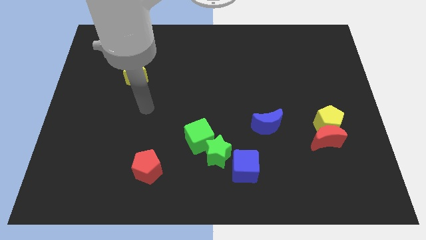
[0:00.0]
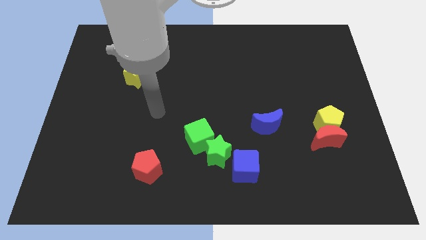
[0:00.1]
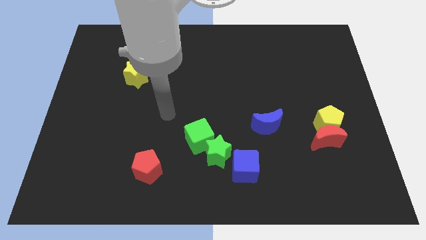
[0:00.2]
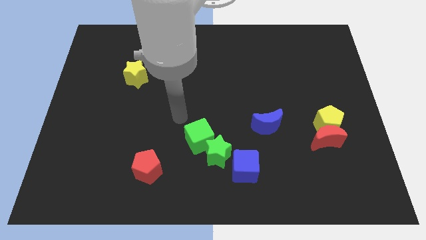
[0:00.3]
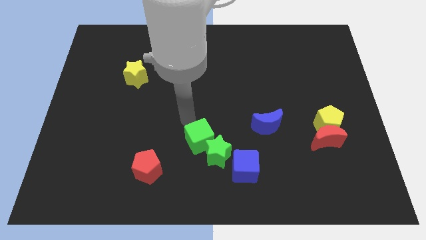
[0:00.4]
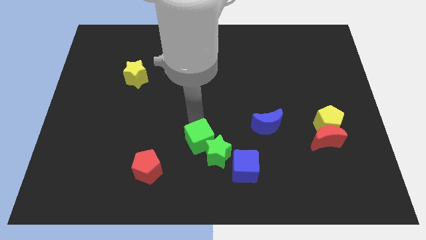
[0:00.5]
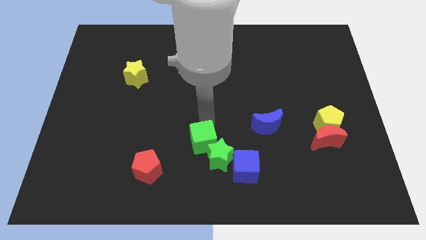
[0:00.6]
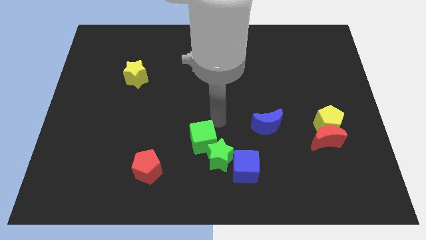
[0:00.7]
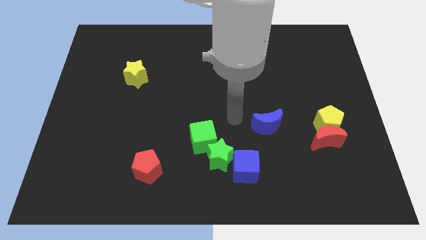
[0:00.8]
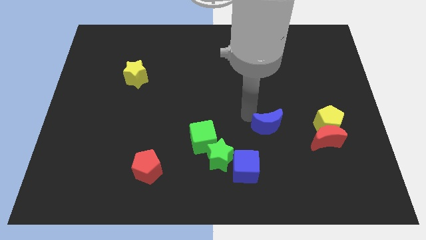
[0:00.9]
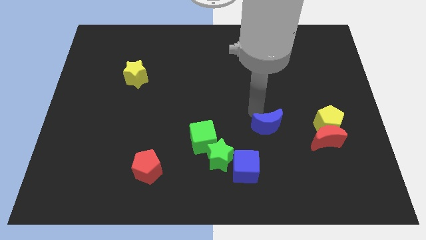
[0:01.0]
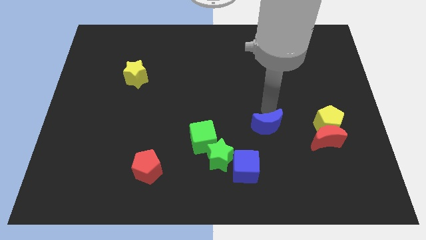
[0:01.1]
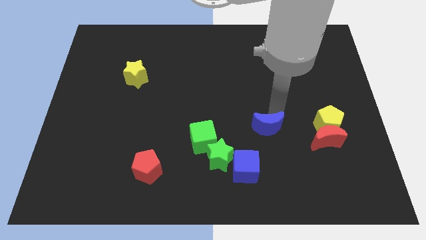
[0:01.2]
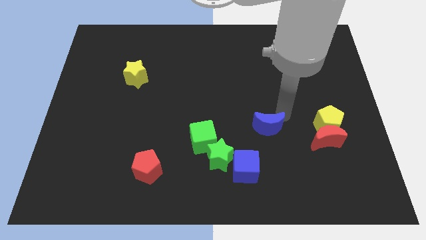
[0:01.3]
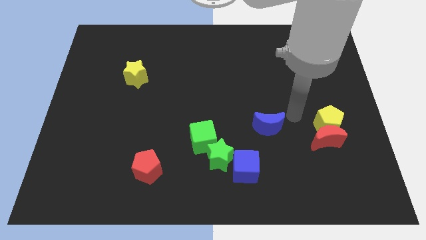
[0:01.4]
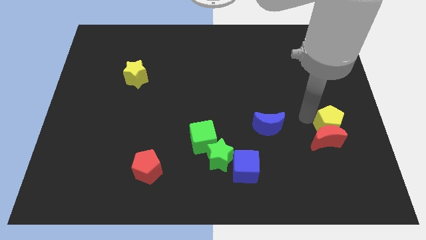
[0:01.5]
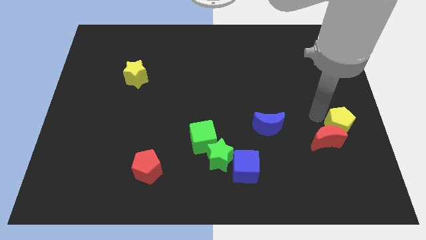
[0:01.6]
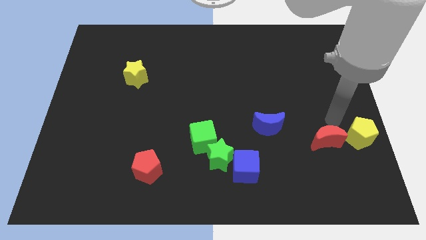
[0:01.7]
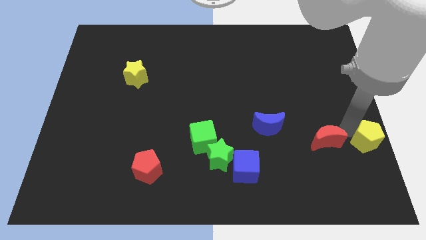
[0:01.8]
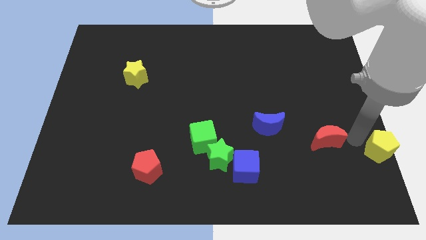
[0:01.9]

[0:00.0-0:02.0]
pull the red moon apart from the yellow pentagon

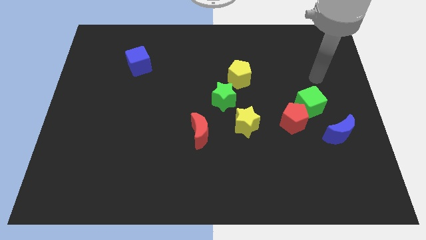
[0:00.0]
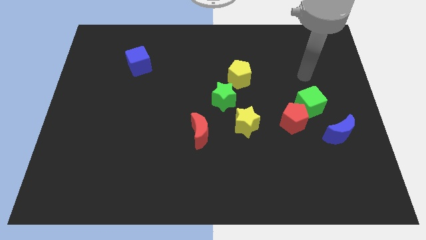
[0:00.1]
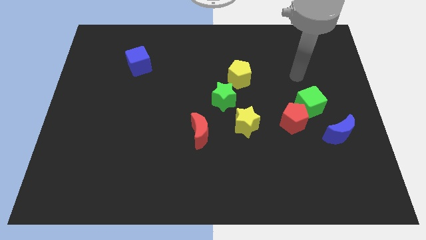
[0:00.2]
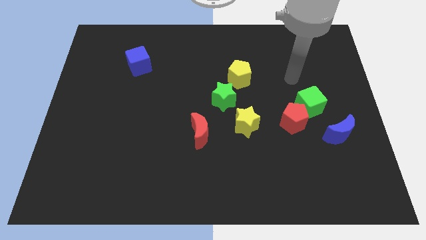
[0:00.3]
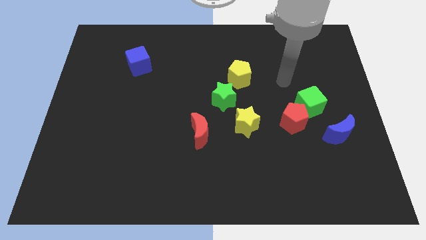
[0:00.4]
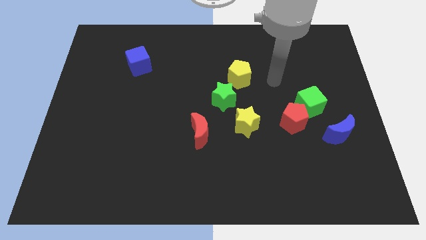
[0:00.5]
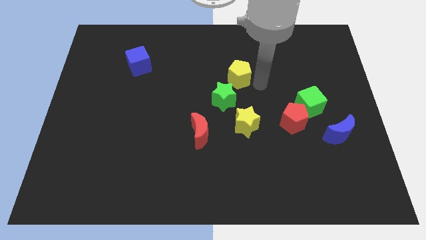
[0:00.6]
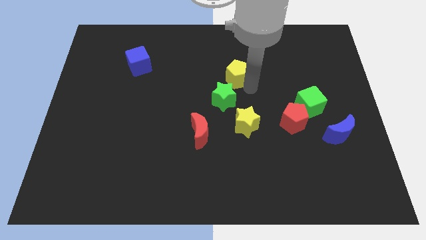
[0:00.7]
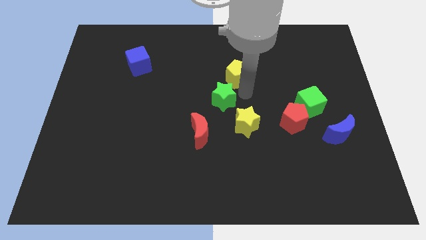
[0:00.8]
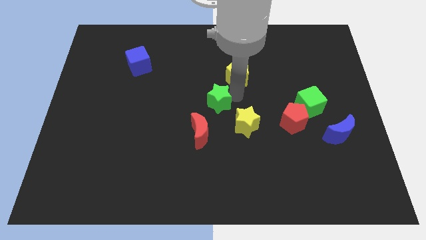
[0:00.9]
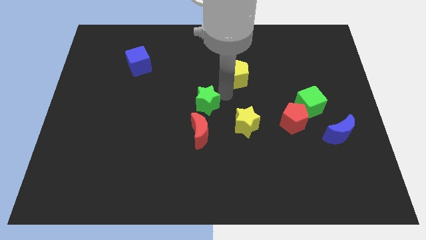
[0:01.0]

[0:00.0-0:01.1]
move the yellow pentagon away from the green star

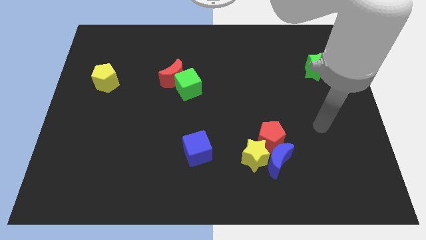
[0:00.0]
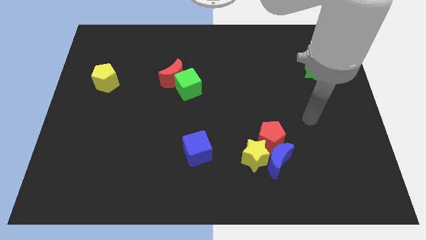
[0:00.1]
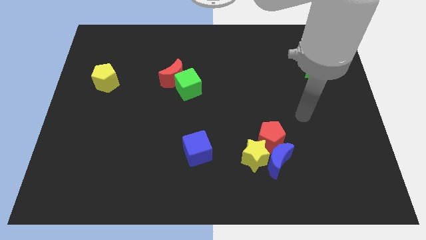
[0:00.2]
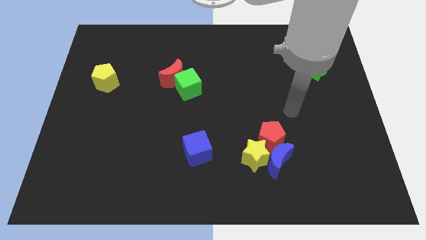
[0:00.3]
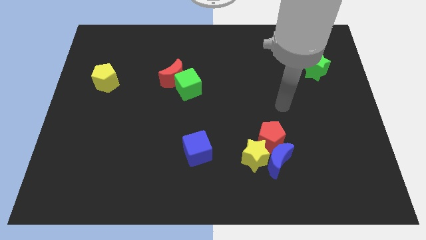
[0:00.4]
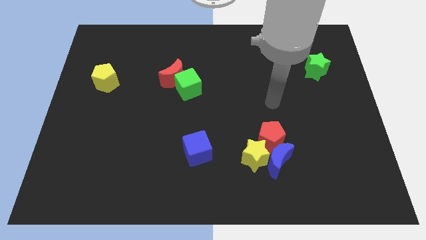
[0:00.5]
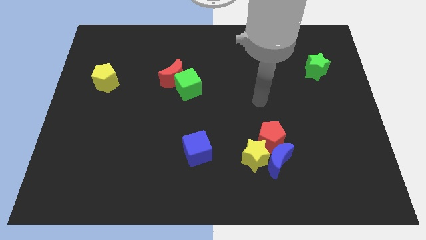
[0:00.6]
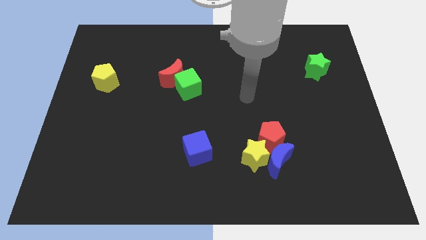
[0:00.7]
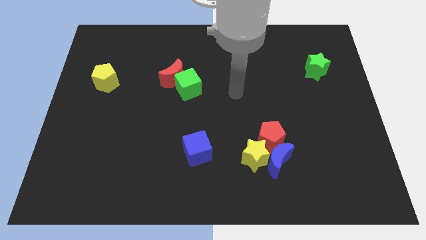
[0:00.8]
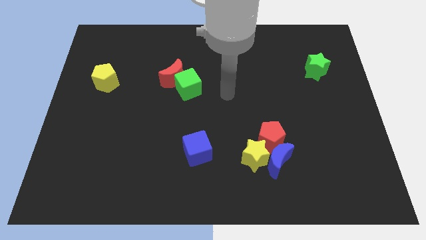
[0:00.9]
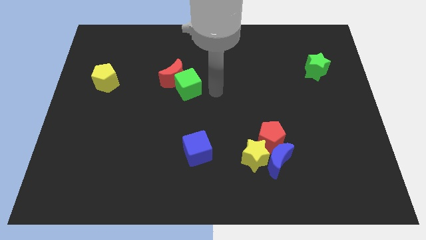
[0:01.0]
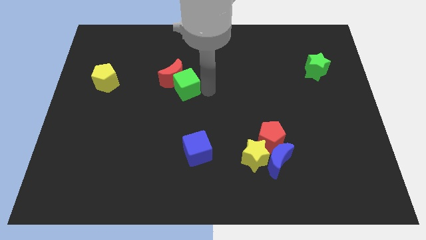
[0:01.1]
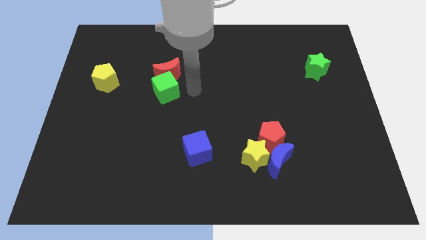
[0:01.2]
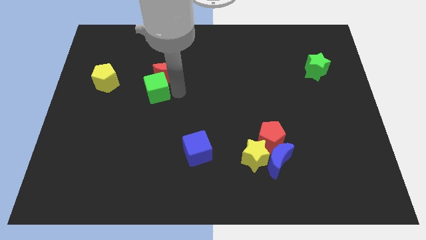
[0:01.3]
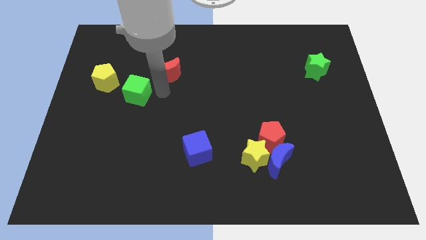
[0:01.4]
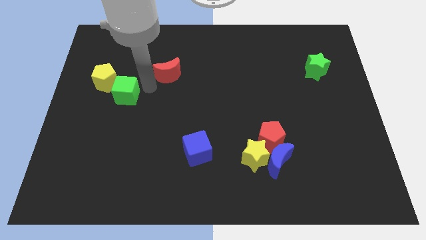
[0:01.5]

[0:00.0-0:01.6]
move the red moon away from the green cube

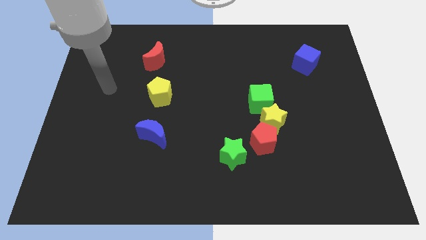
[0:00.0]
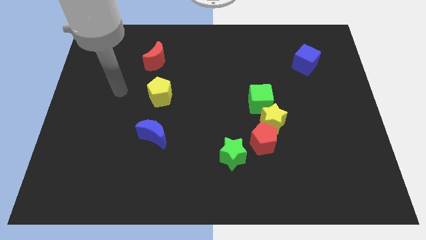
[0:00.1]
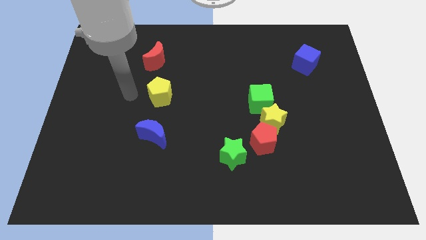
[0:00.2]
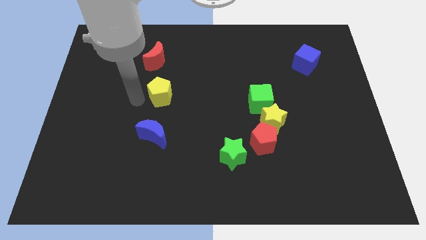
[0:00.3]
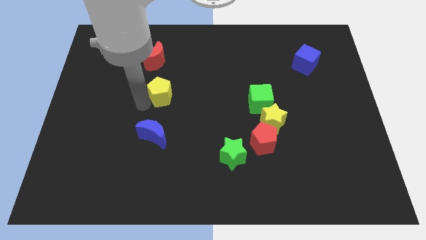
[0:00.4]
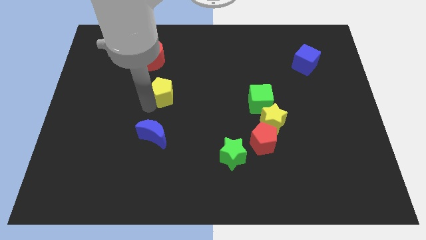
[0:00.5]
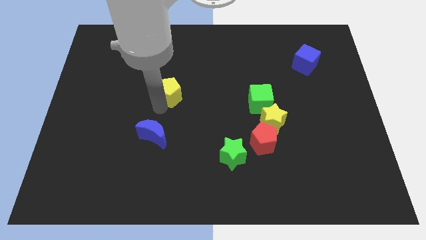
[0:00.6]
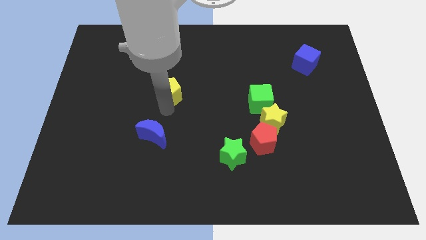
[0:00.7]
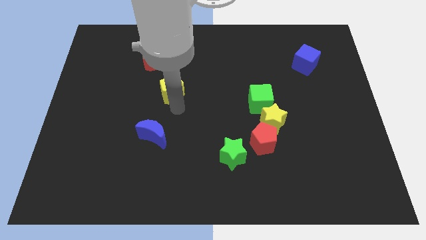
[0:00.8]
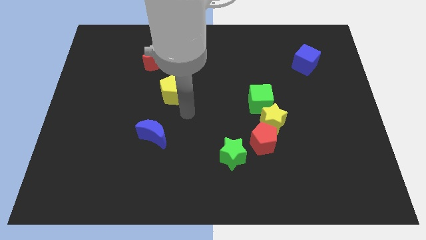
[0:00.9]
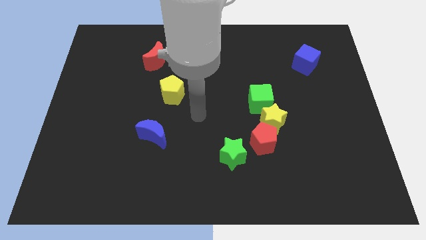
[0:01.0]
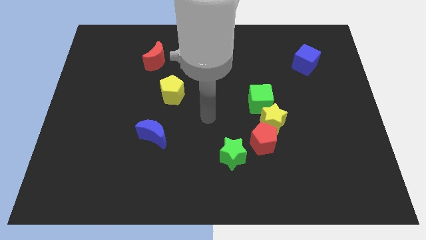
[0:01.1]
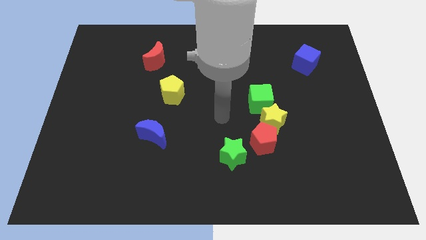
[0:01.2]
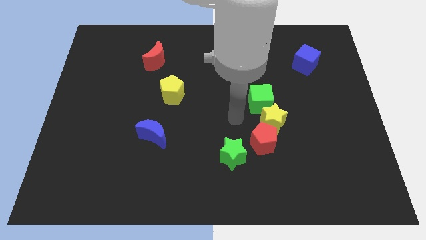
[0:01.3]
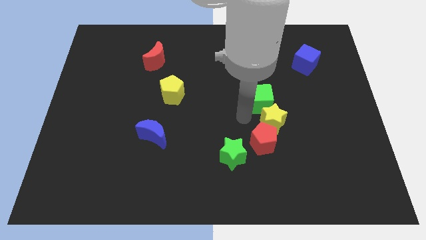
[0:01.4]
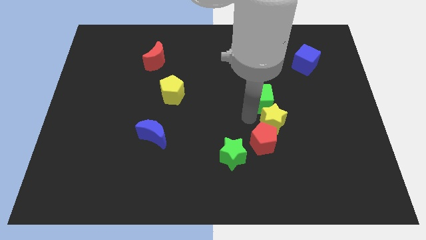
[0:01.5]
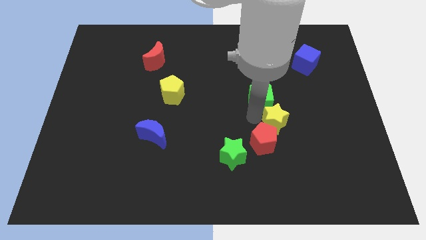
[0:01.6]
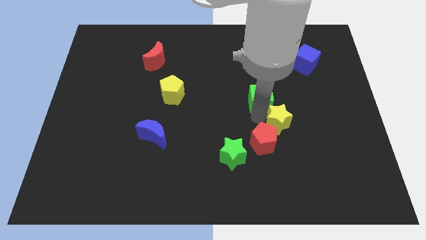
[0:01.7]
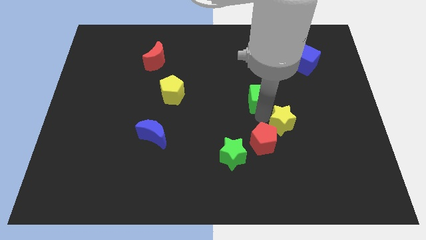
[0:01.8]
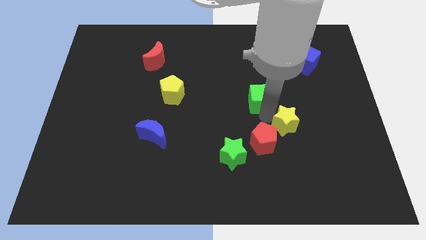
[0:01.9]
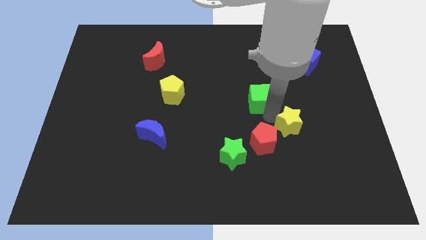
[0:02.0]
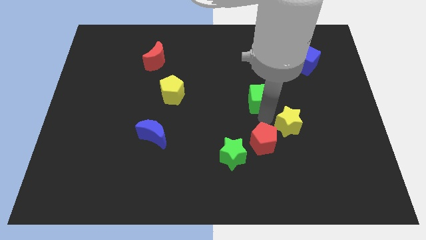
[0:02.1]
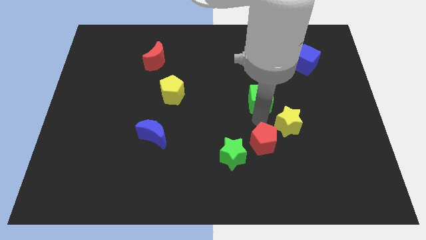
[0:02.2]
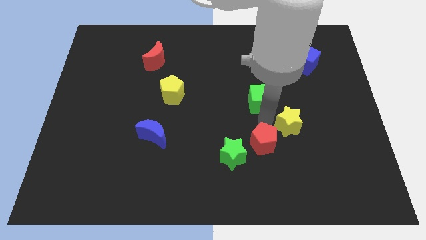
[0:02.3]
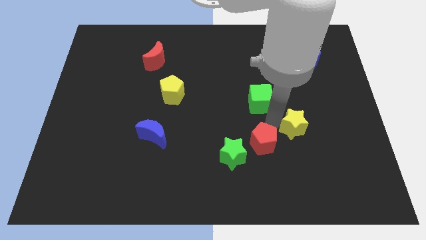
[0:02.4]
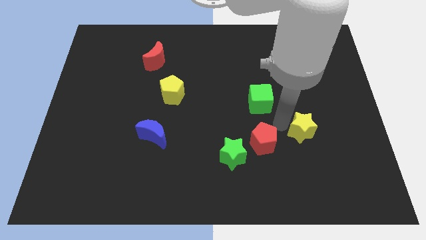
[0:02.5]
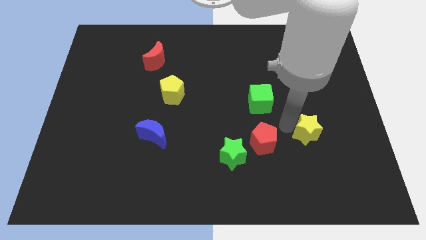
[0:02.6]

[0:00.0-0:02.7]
move the yellow star away from the red pentagon and green cube

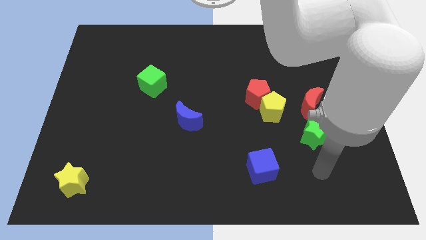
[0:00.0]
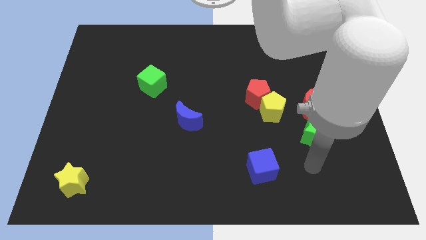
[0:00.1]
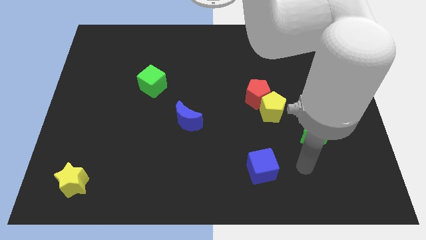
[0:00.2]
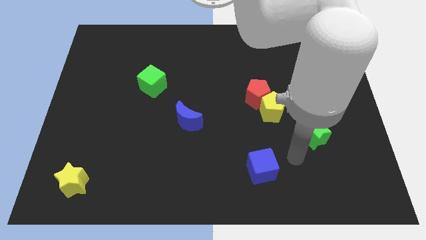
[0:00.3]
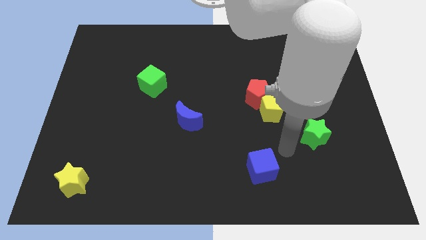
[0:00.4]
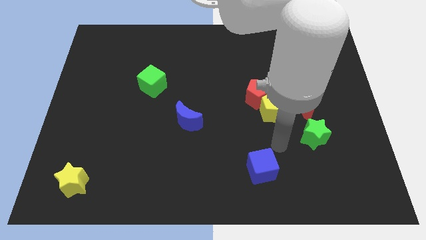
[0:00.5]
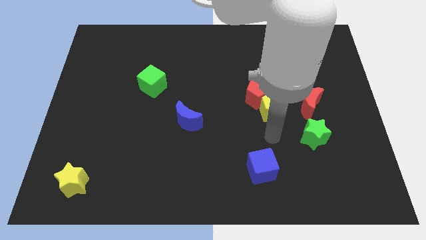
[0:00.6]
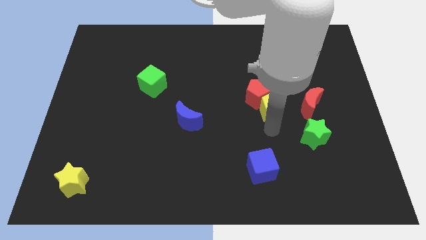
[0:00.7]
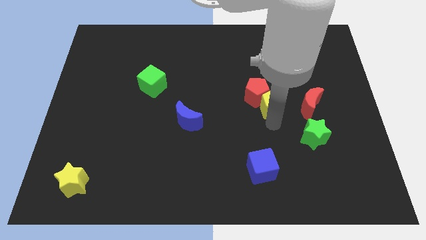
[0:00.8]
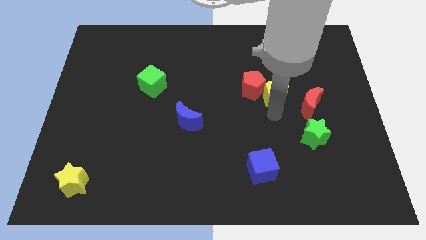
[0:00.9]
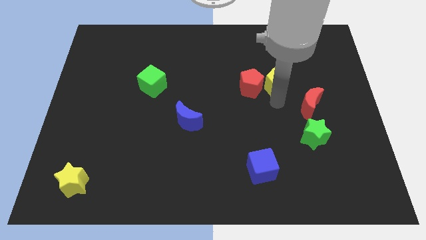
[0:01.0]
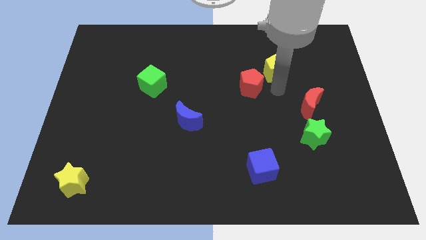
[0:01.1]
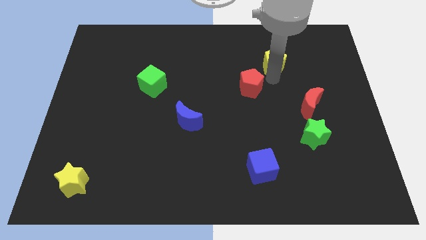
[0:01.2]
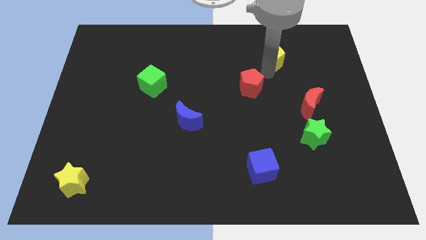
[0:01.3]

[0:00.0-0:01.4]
move the red pentagon away from the yellow pentagon

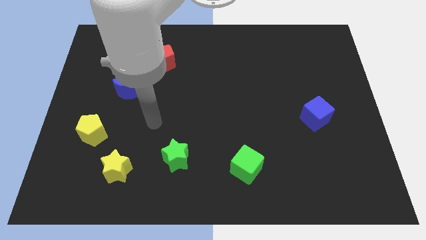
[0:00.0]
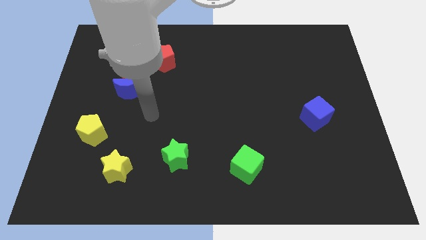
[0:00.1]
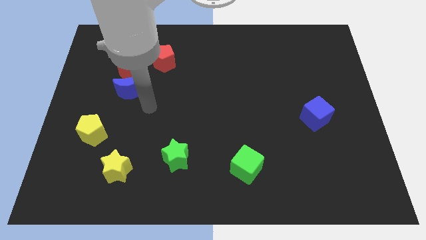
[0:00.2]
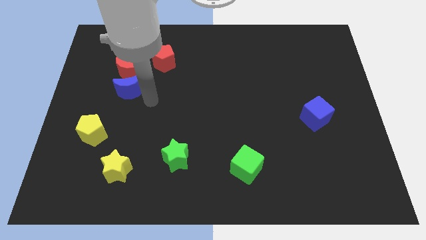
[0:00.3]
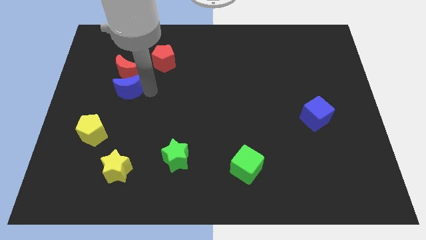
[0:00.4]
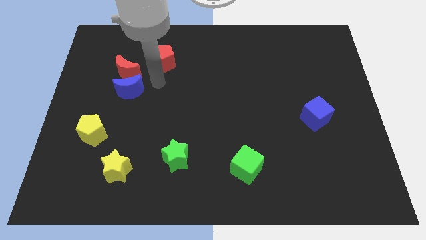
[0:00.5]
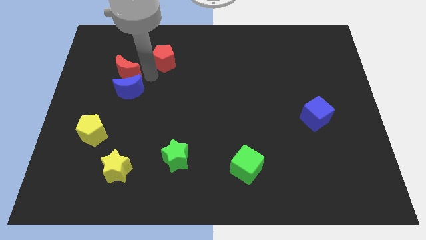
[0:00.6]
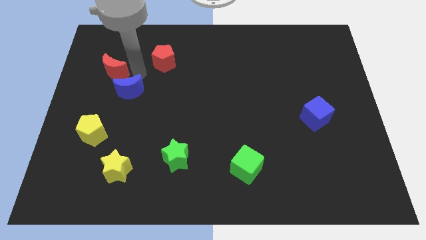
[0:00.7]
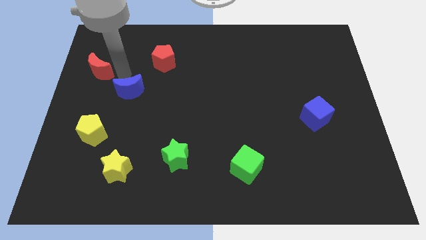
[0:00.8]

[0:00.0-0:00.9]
pull the blue moon apart from the red moon
